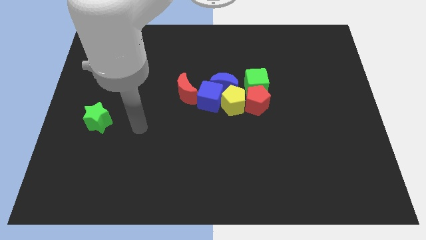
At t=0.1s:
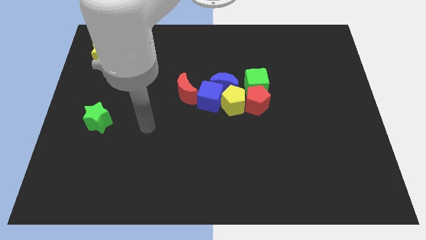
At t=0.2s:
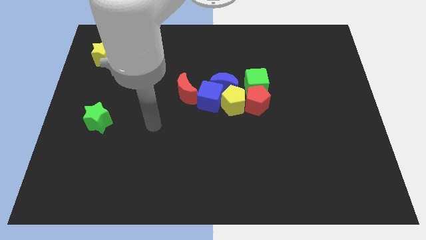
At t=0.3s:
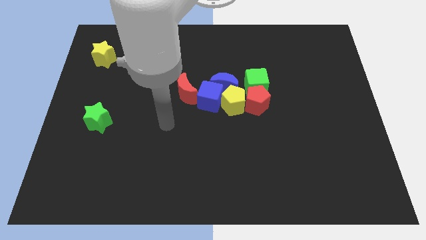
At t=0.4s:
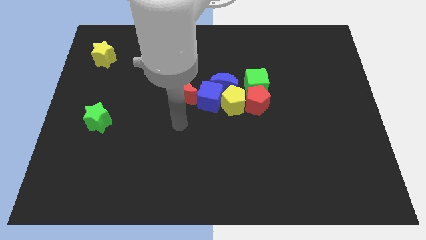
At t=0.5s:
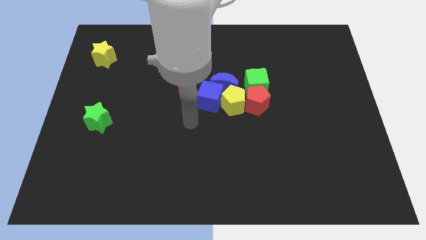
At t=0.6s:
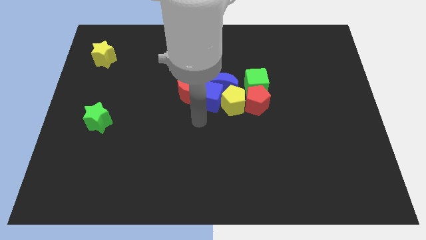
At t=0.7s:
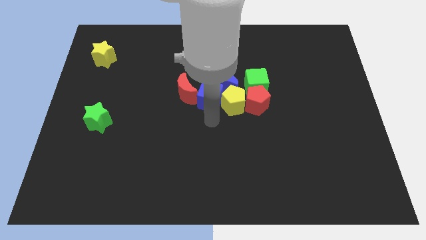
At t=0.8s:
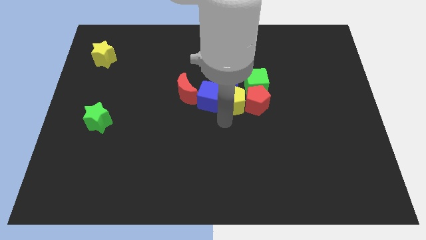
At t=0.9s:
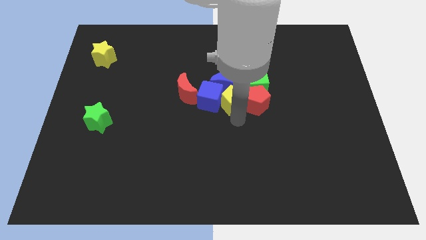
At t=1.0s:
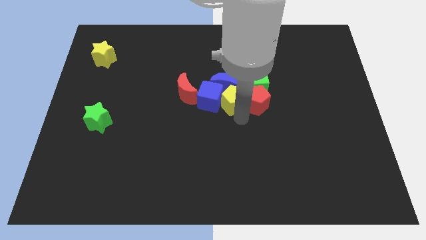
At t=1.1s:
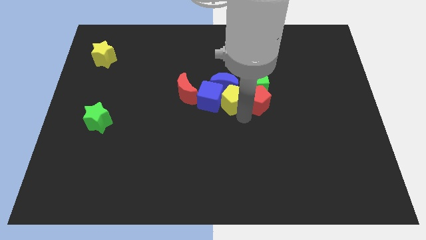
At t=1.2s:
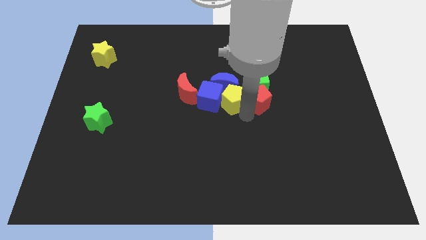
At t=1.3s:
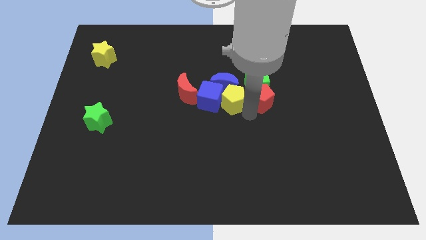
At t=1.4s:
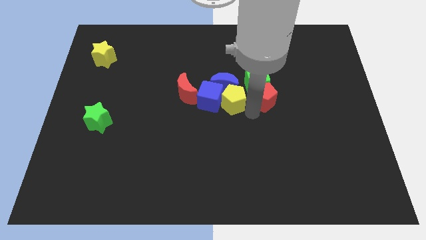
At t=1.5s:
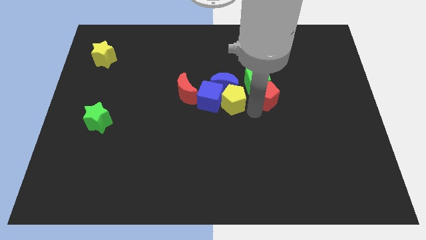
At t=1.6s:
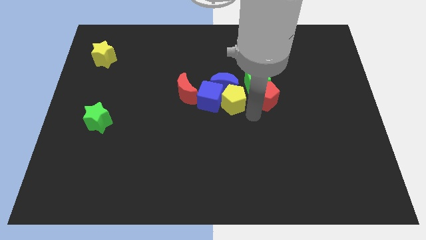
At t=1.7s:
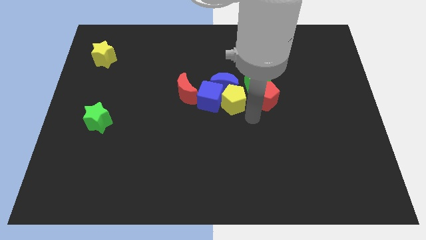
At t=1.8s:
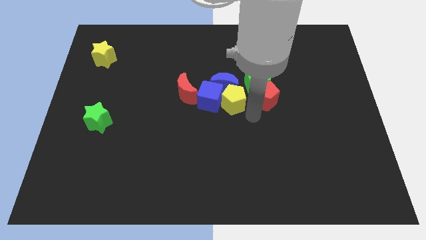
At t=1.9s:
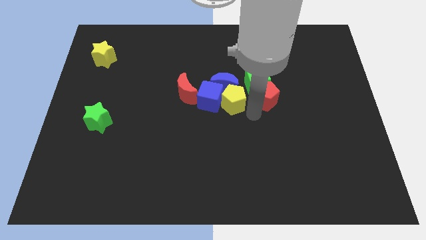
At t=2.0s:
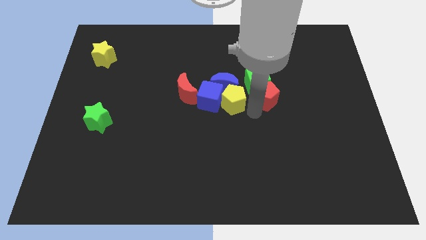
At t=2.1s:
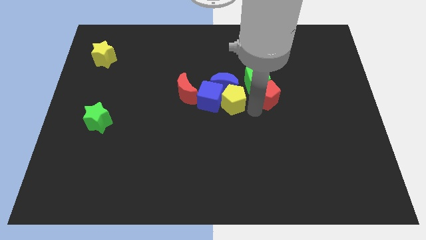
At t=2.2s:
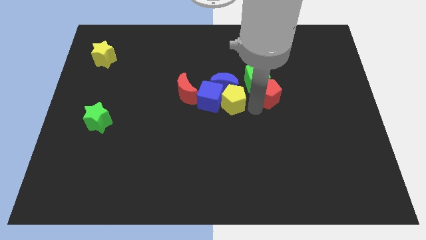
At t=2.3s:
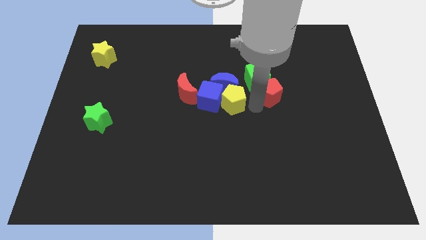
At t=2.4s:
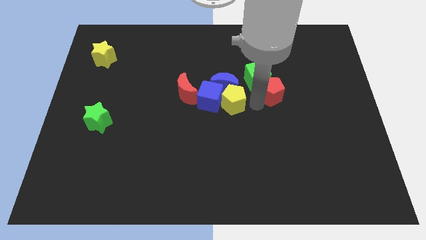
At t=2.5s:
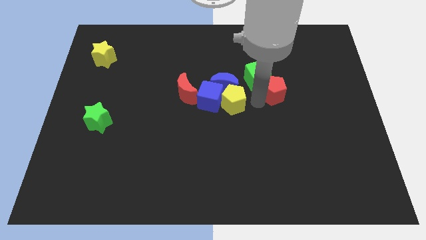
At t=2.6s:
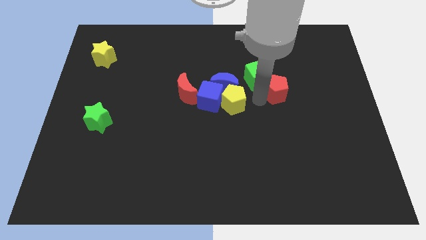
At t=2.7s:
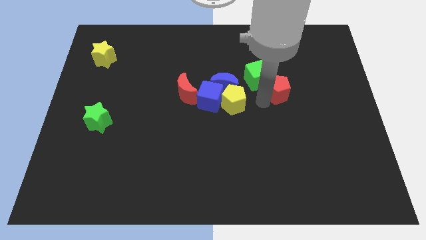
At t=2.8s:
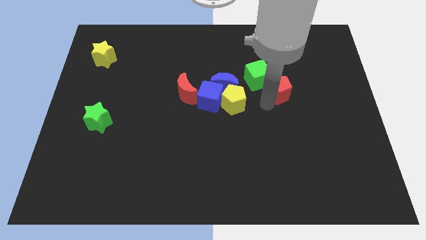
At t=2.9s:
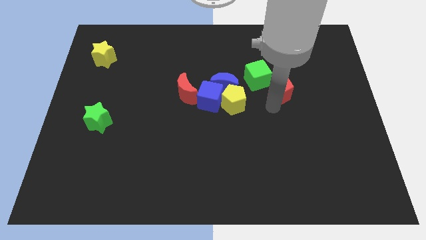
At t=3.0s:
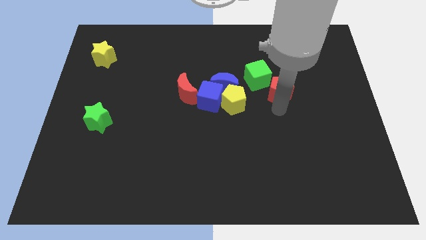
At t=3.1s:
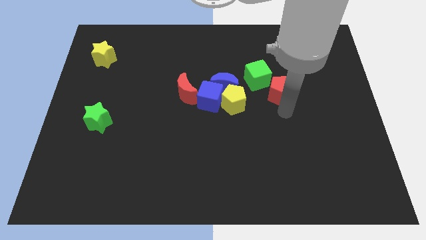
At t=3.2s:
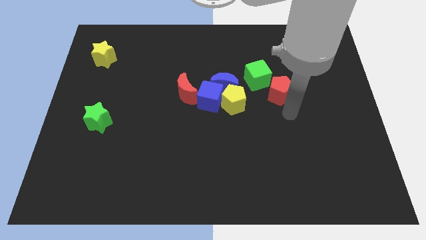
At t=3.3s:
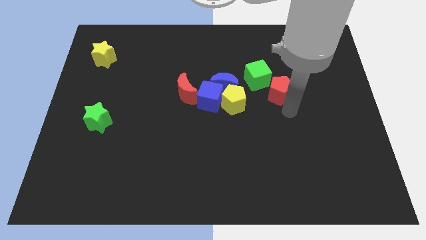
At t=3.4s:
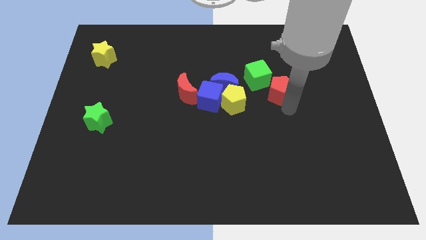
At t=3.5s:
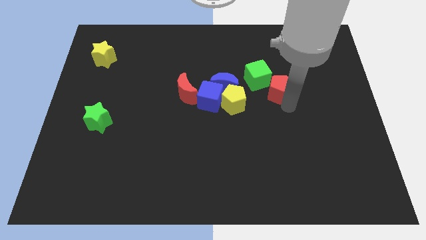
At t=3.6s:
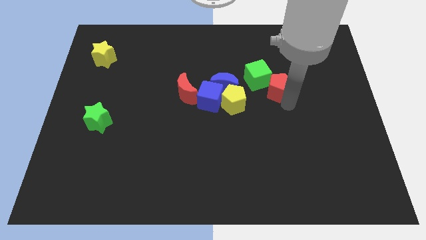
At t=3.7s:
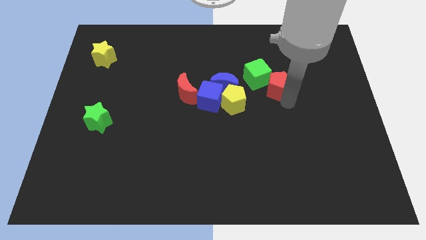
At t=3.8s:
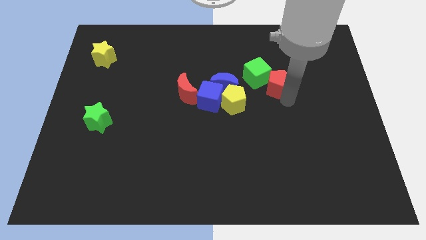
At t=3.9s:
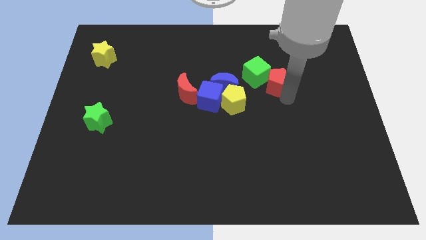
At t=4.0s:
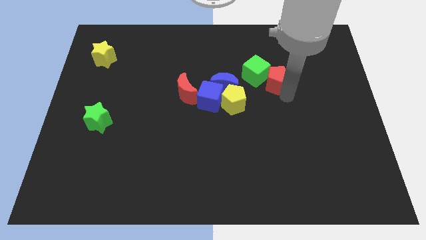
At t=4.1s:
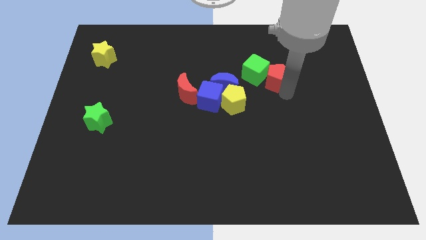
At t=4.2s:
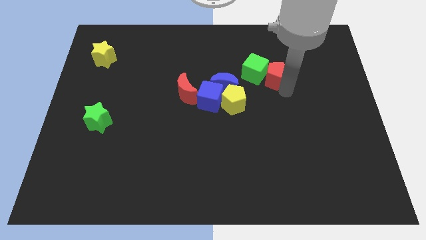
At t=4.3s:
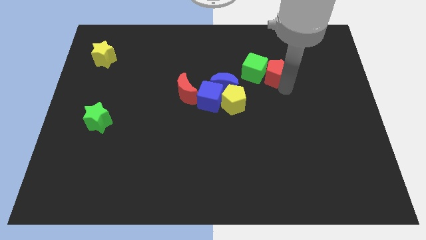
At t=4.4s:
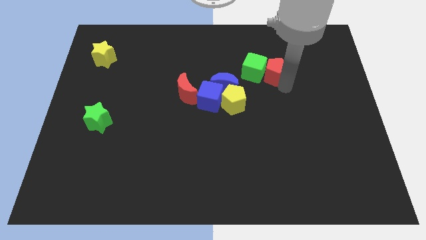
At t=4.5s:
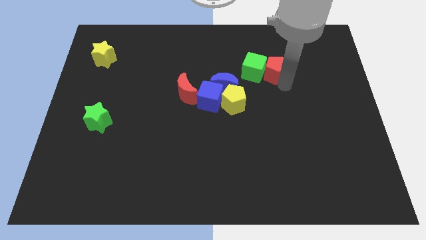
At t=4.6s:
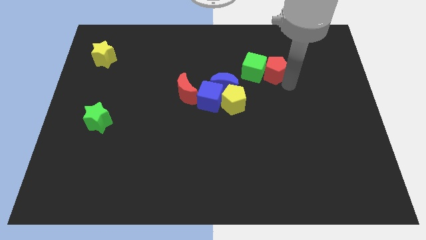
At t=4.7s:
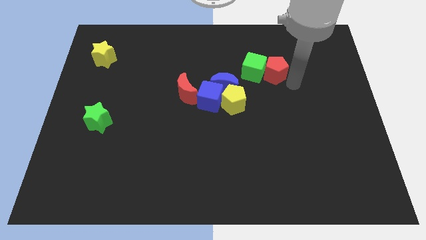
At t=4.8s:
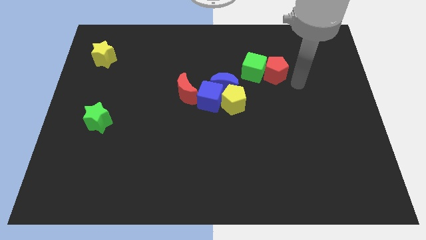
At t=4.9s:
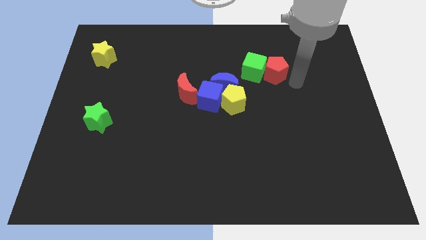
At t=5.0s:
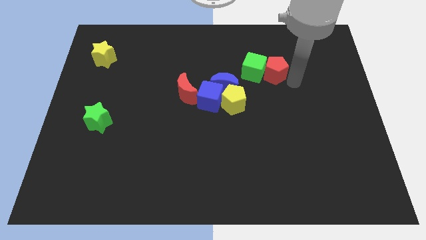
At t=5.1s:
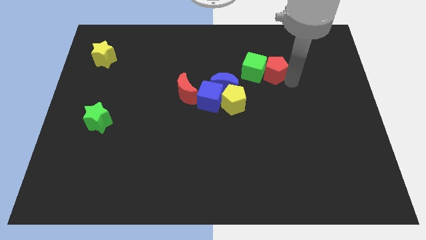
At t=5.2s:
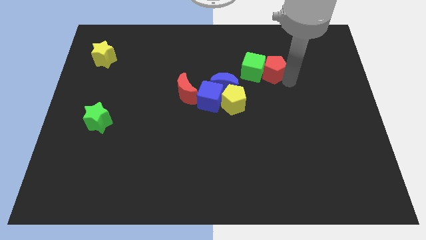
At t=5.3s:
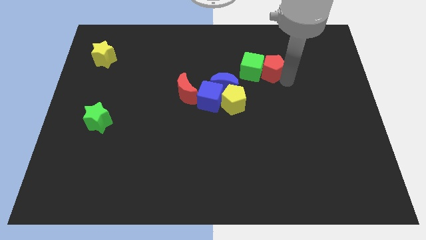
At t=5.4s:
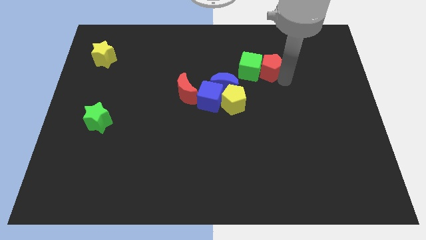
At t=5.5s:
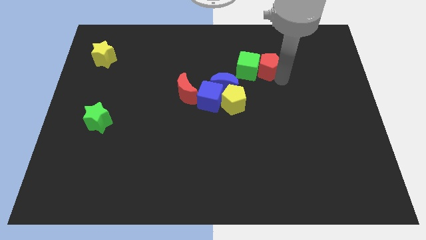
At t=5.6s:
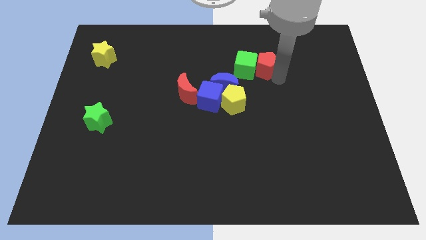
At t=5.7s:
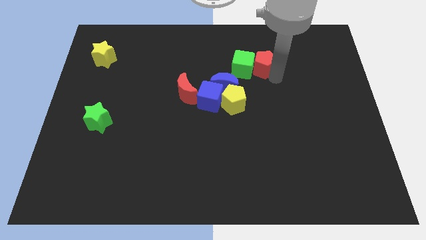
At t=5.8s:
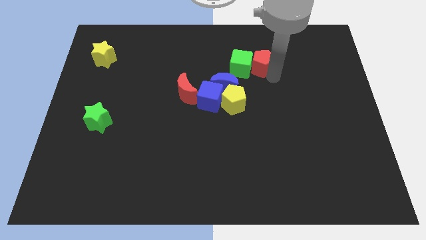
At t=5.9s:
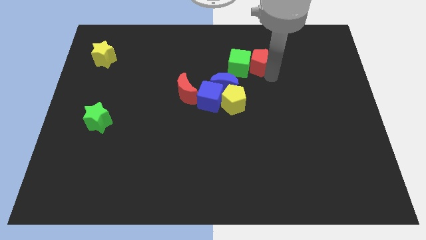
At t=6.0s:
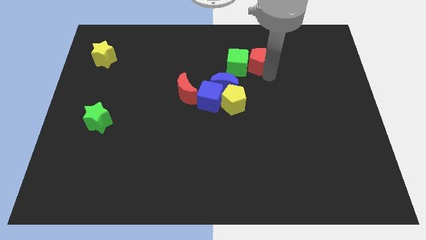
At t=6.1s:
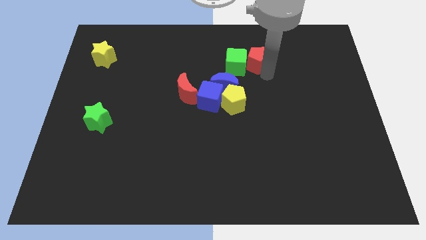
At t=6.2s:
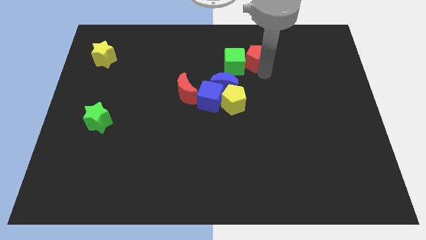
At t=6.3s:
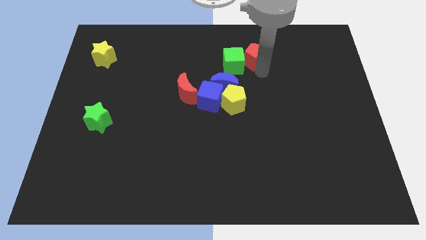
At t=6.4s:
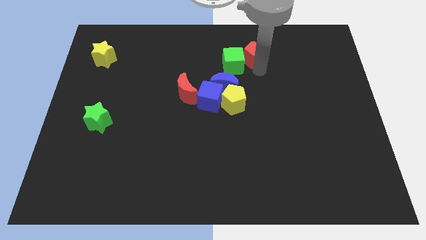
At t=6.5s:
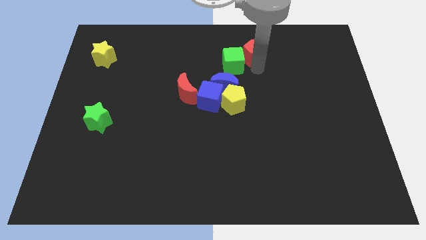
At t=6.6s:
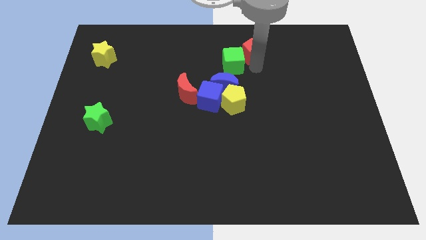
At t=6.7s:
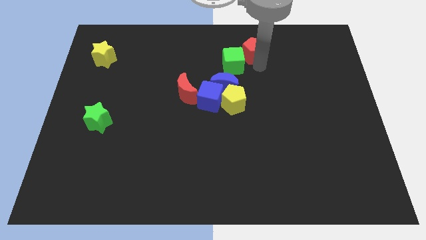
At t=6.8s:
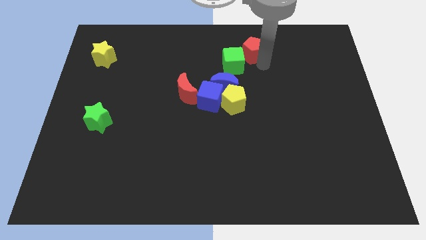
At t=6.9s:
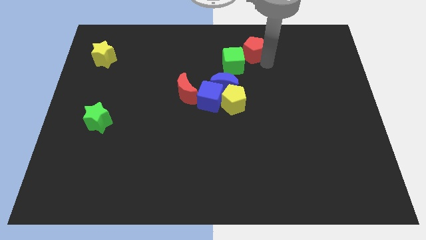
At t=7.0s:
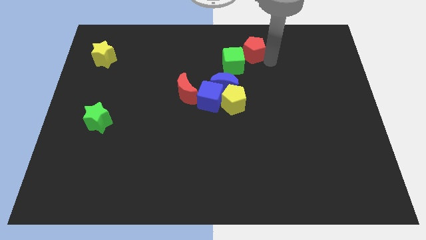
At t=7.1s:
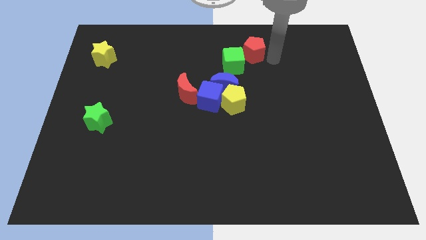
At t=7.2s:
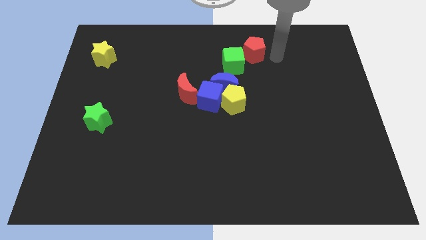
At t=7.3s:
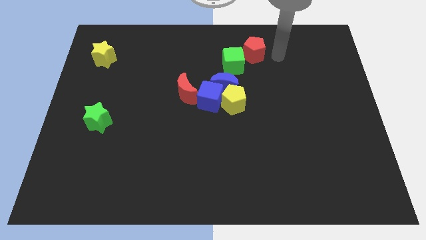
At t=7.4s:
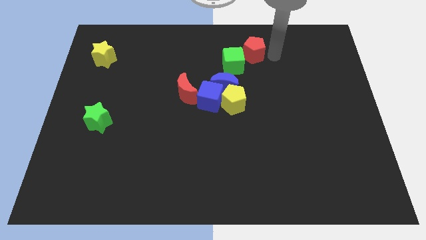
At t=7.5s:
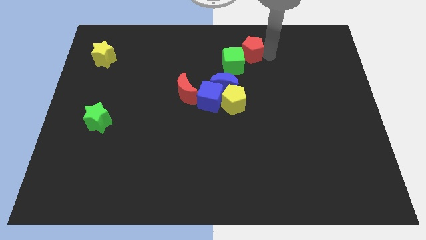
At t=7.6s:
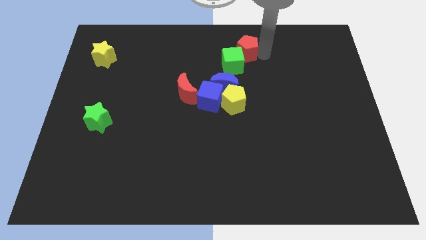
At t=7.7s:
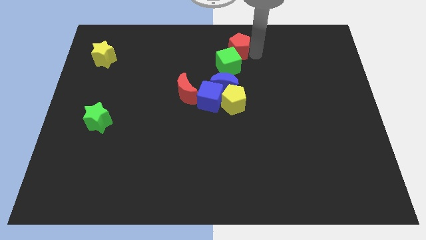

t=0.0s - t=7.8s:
put the red pentagon to the towards your base
